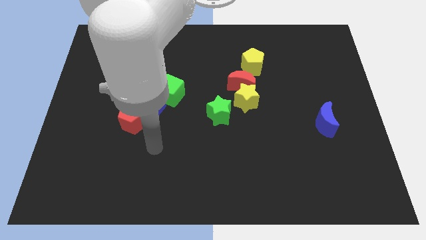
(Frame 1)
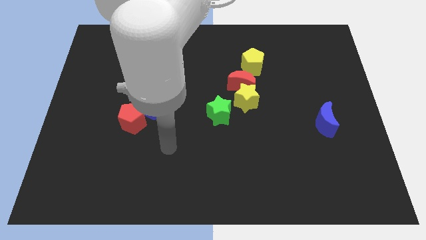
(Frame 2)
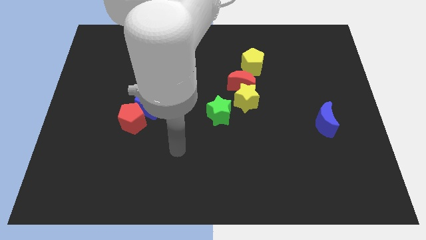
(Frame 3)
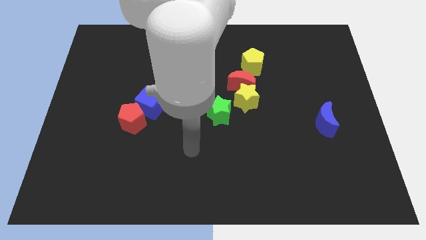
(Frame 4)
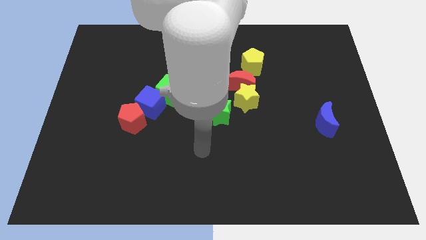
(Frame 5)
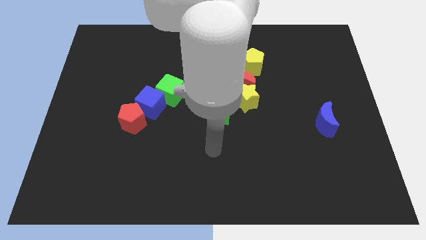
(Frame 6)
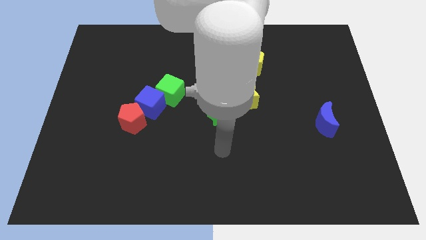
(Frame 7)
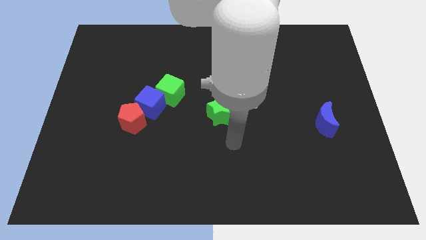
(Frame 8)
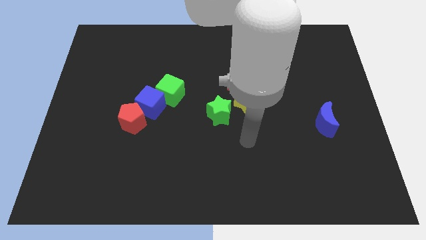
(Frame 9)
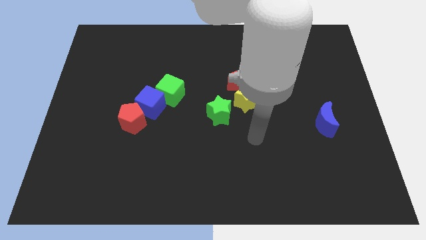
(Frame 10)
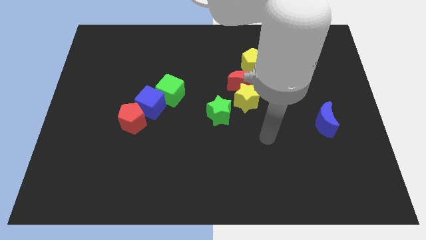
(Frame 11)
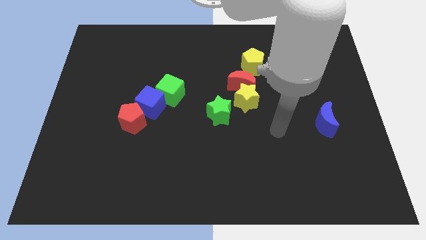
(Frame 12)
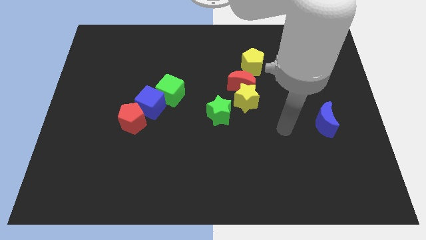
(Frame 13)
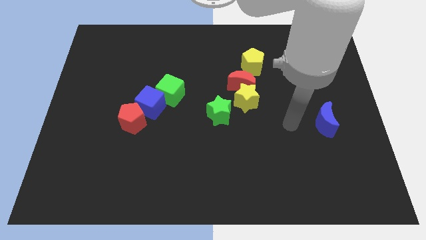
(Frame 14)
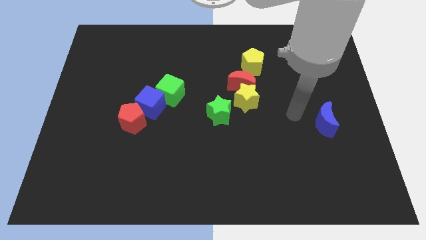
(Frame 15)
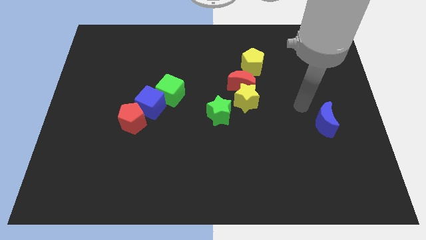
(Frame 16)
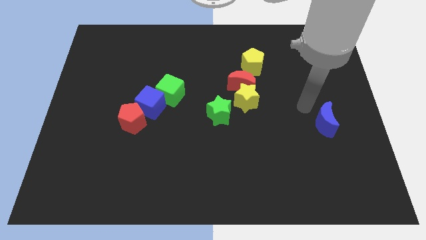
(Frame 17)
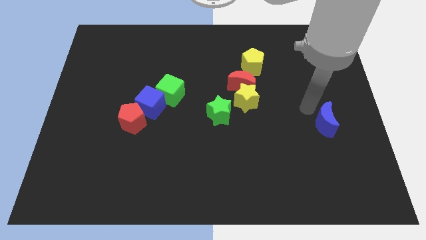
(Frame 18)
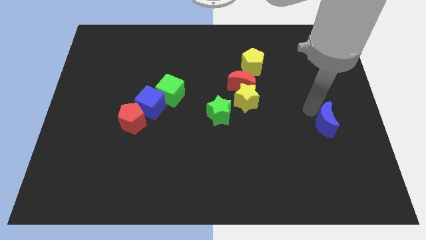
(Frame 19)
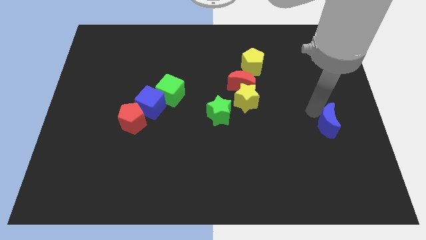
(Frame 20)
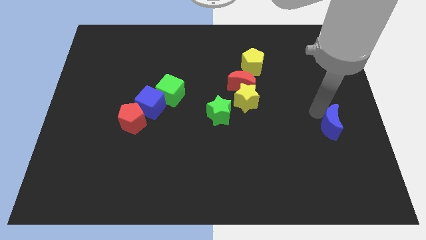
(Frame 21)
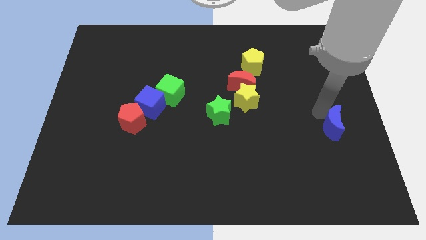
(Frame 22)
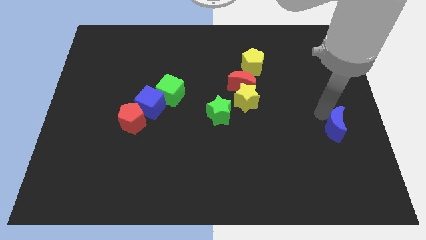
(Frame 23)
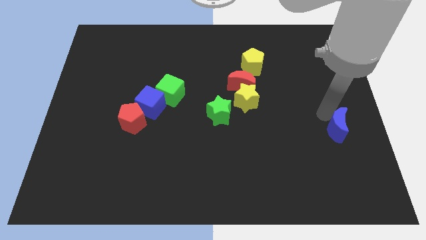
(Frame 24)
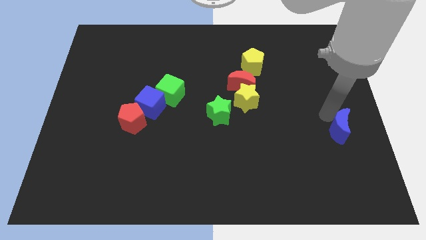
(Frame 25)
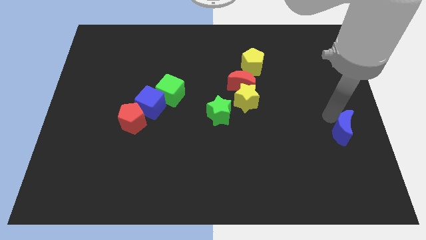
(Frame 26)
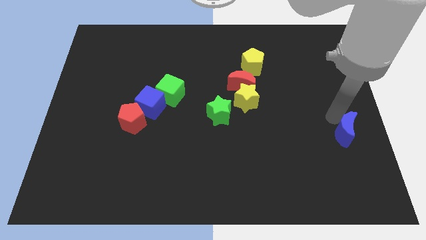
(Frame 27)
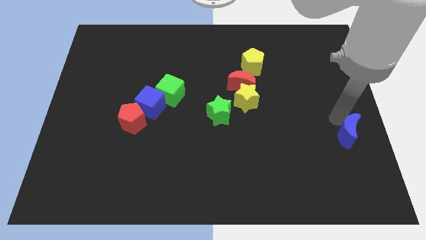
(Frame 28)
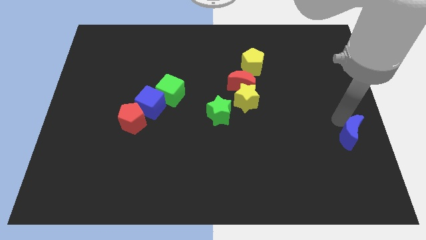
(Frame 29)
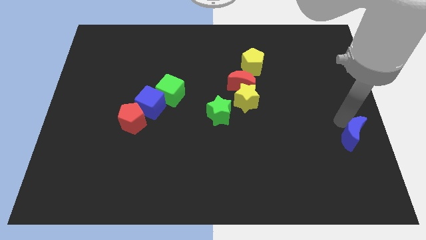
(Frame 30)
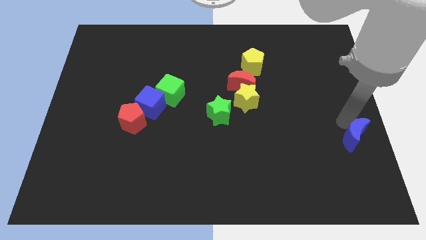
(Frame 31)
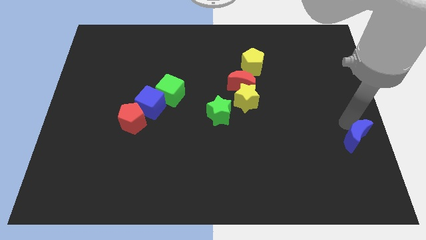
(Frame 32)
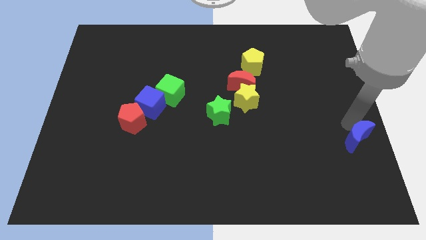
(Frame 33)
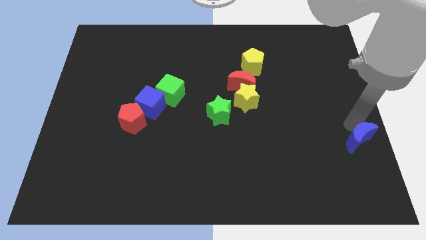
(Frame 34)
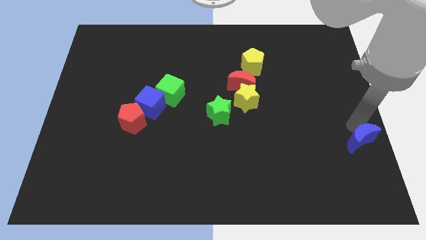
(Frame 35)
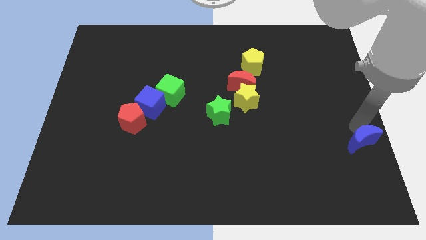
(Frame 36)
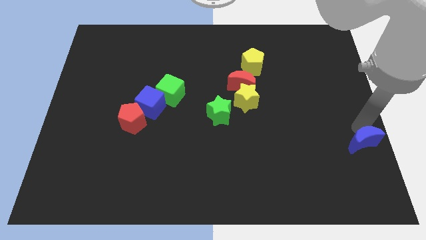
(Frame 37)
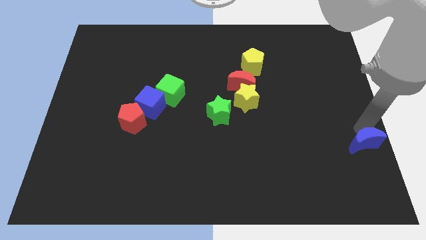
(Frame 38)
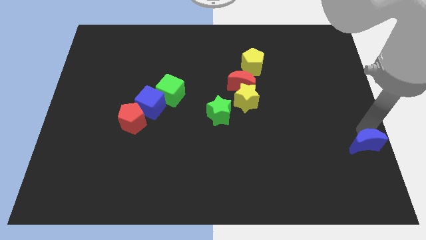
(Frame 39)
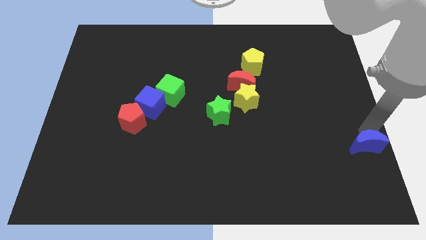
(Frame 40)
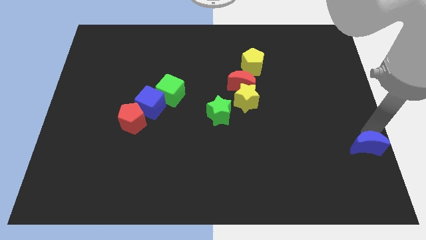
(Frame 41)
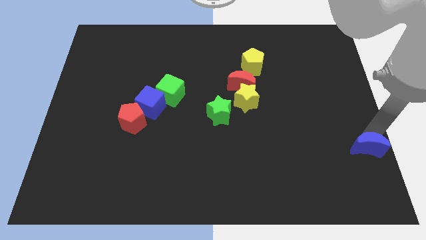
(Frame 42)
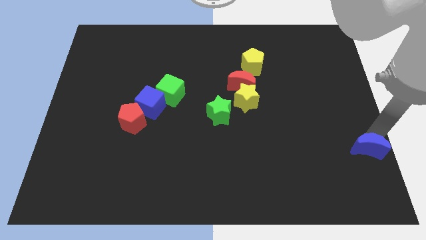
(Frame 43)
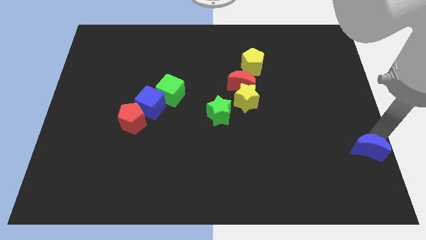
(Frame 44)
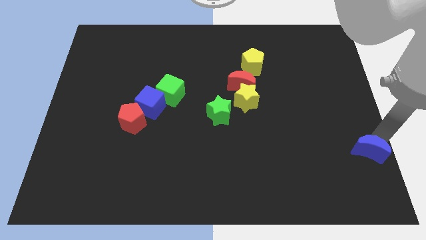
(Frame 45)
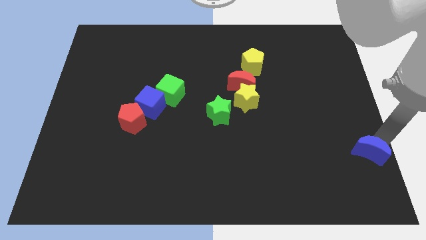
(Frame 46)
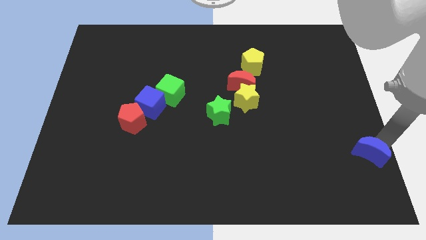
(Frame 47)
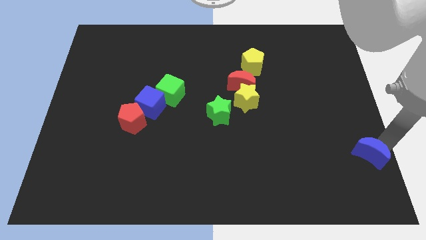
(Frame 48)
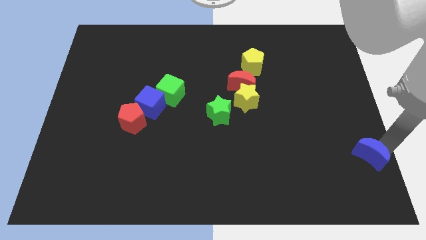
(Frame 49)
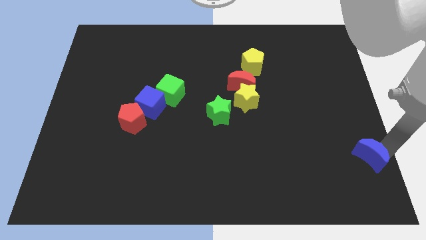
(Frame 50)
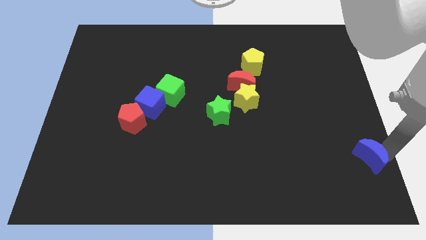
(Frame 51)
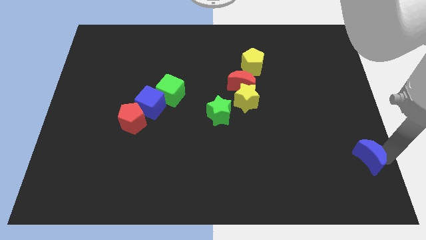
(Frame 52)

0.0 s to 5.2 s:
push the blue moon to the bottom right

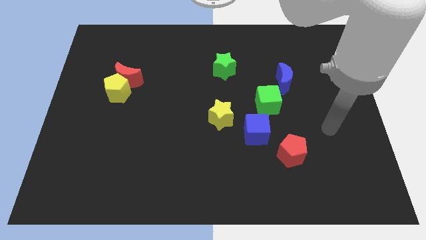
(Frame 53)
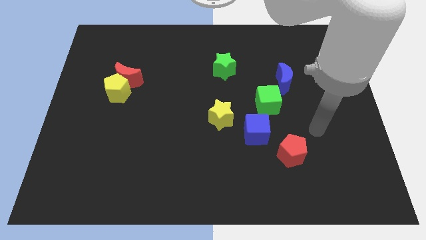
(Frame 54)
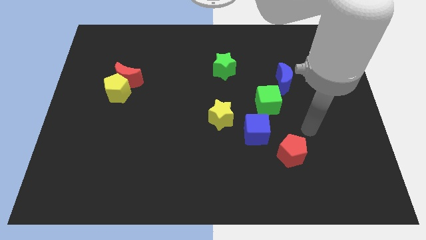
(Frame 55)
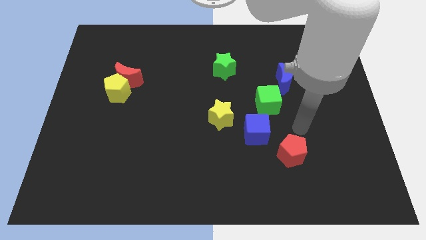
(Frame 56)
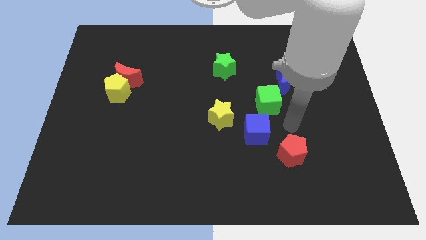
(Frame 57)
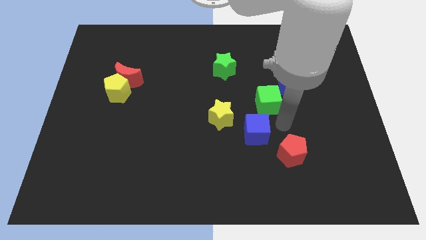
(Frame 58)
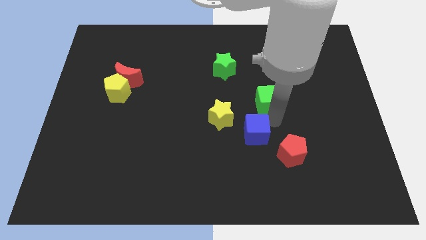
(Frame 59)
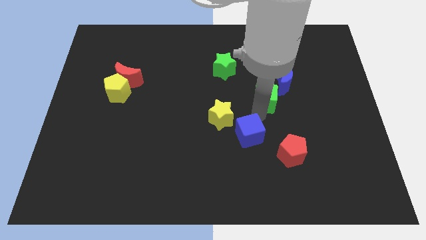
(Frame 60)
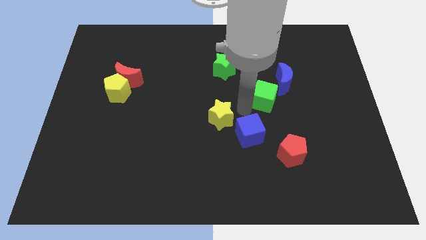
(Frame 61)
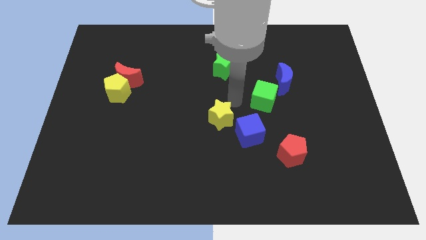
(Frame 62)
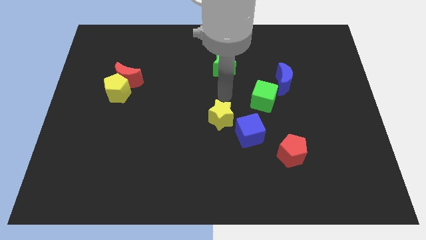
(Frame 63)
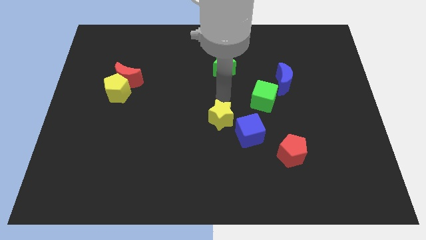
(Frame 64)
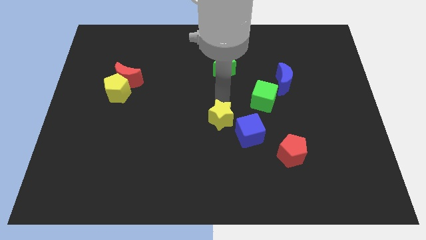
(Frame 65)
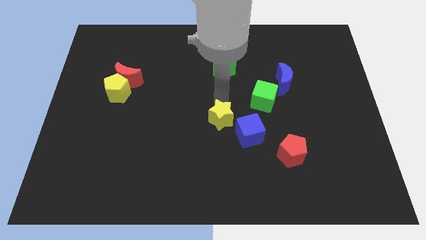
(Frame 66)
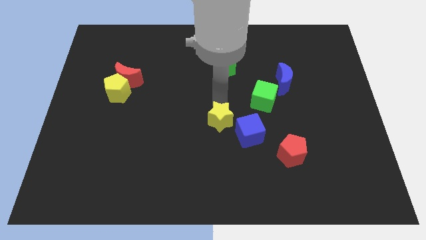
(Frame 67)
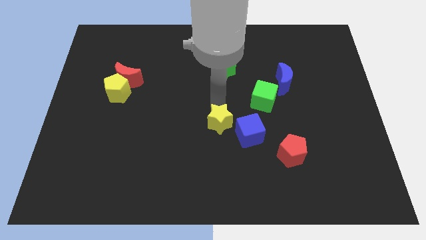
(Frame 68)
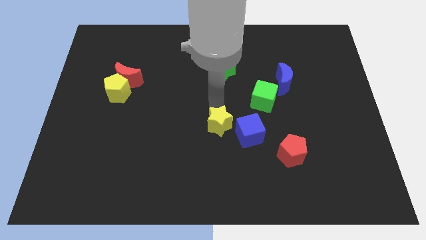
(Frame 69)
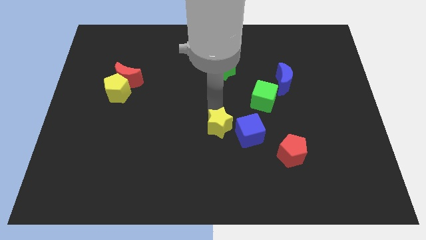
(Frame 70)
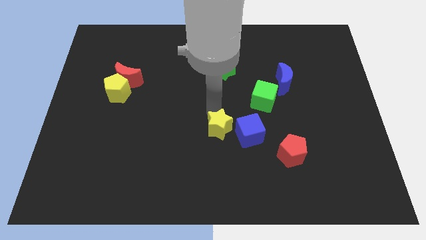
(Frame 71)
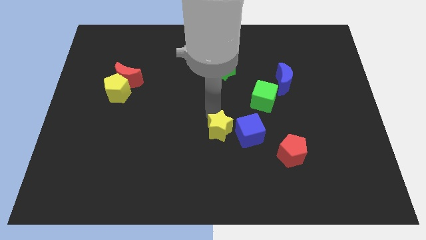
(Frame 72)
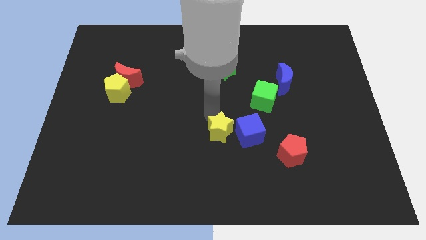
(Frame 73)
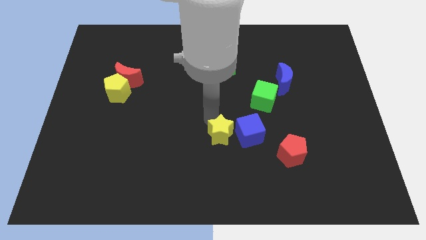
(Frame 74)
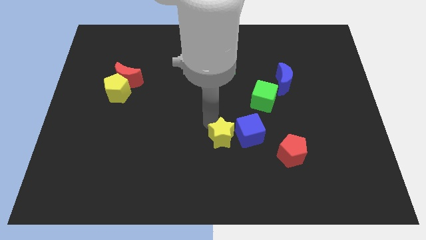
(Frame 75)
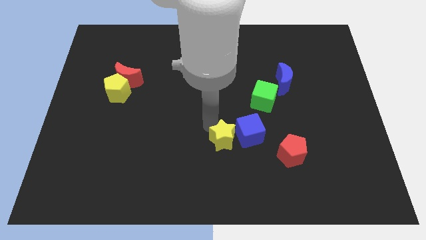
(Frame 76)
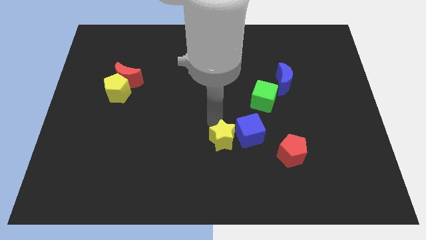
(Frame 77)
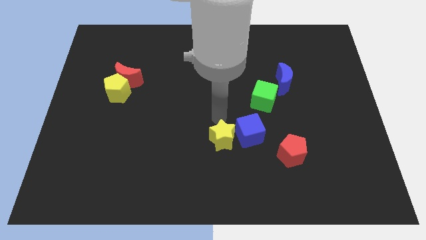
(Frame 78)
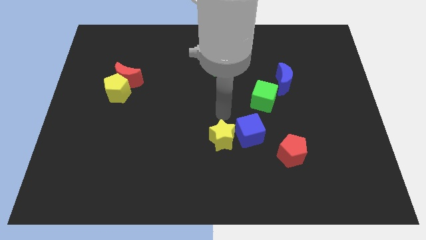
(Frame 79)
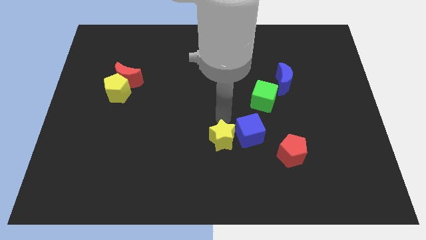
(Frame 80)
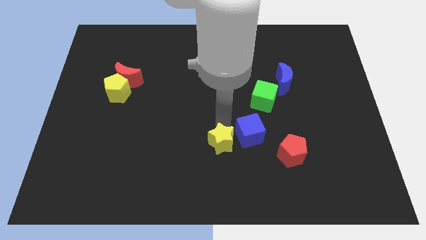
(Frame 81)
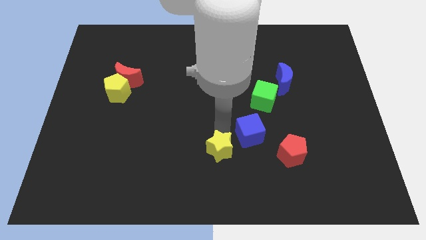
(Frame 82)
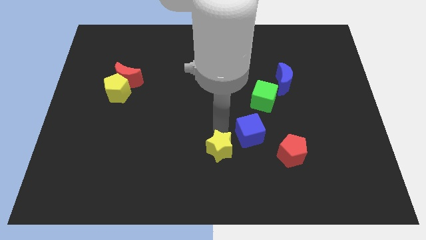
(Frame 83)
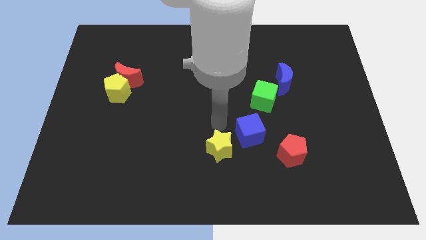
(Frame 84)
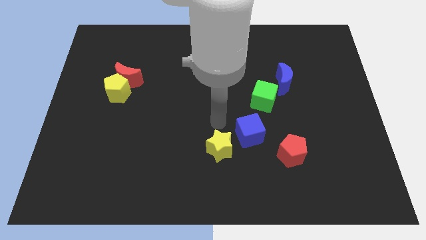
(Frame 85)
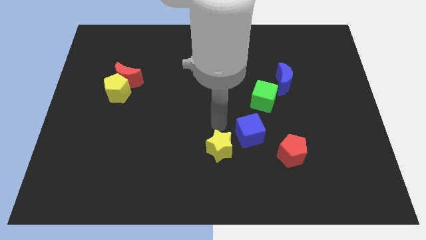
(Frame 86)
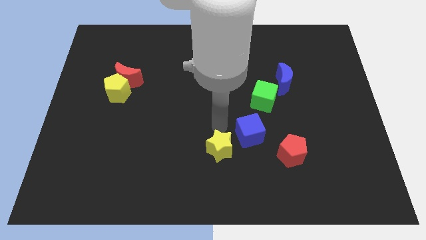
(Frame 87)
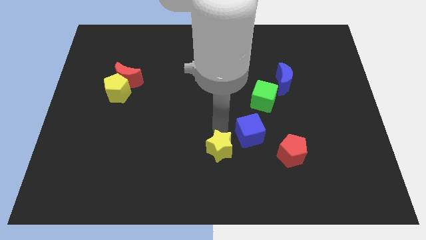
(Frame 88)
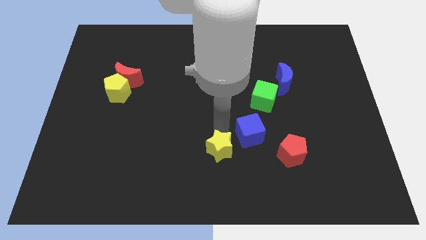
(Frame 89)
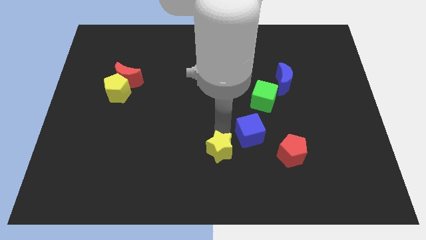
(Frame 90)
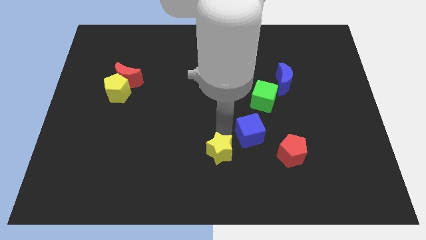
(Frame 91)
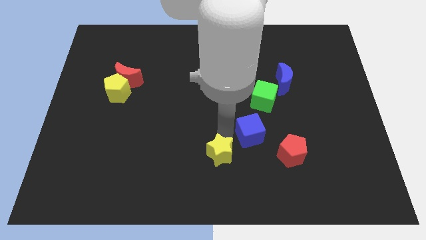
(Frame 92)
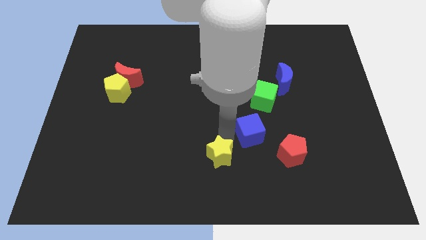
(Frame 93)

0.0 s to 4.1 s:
put the yellow star to the bottom
